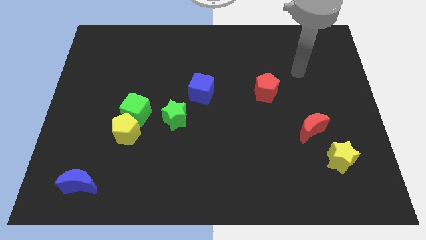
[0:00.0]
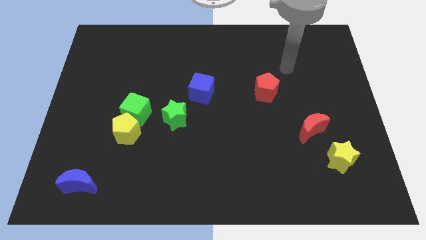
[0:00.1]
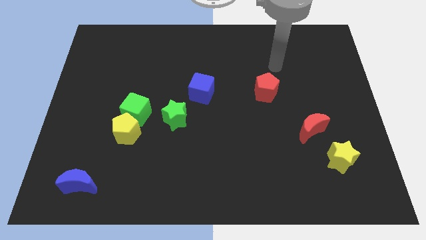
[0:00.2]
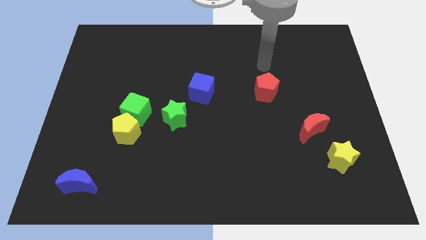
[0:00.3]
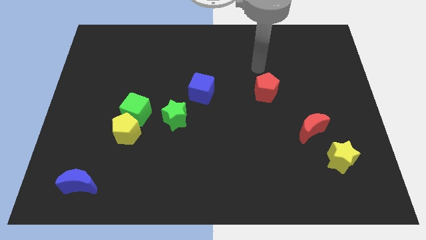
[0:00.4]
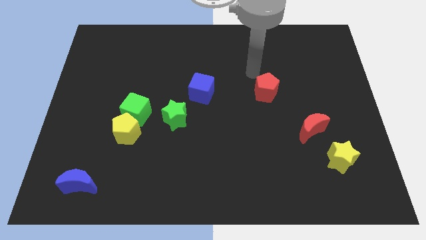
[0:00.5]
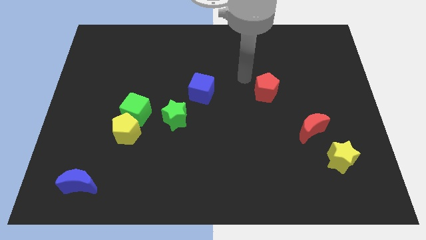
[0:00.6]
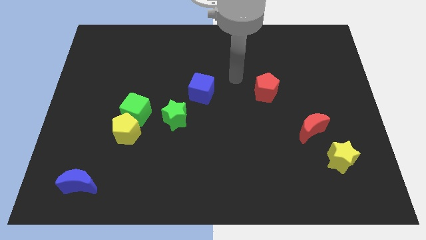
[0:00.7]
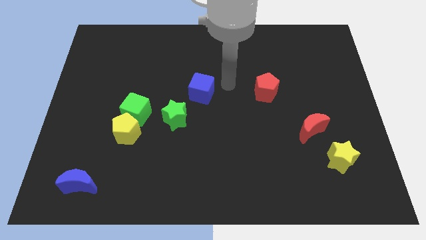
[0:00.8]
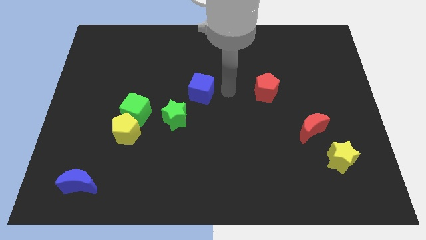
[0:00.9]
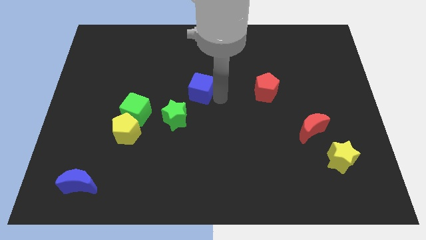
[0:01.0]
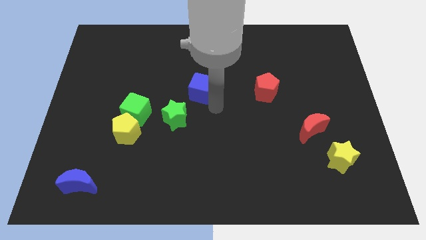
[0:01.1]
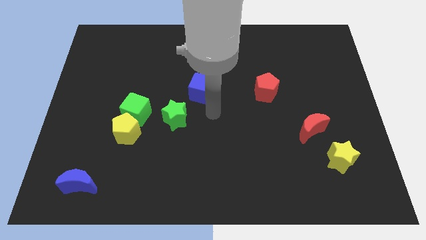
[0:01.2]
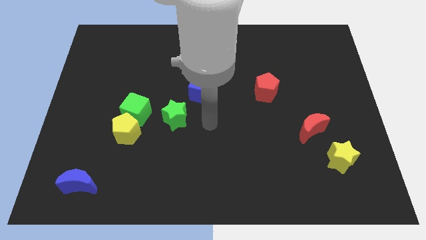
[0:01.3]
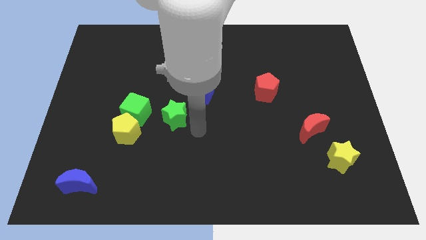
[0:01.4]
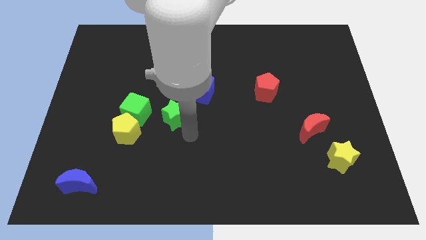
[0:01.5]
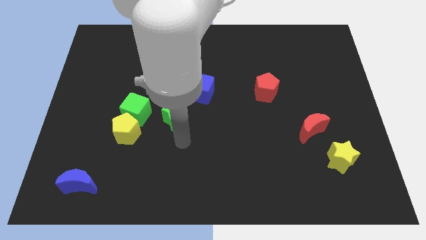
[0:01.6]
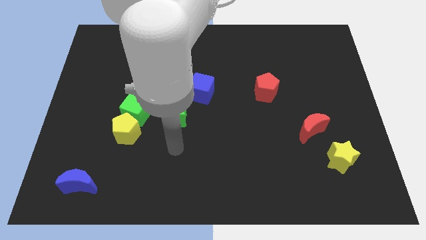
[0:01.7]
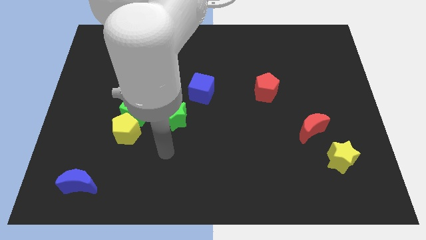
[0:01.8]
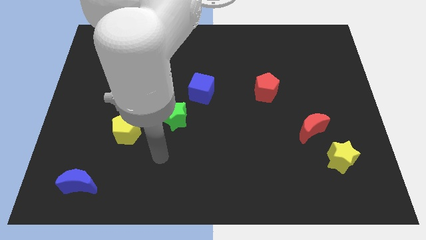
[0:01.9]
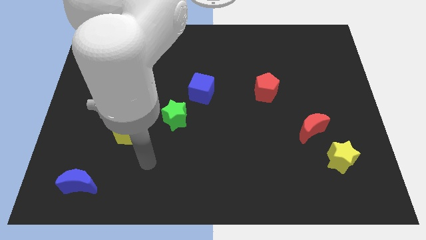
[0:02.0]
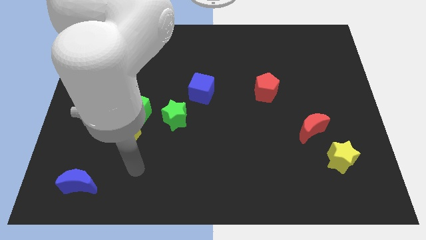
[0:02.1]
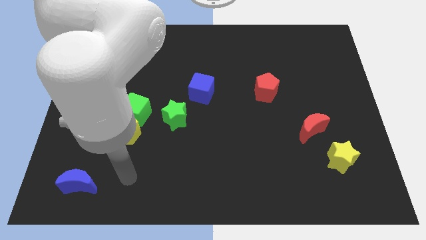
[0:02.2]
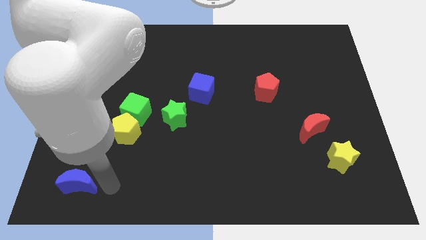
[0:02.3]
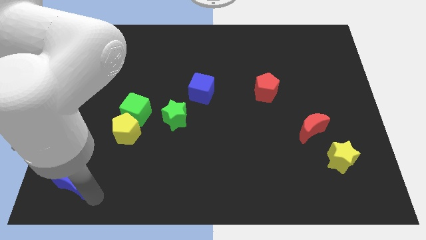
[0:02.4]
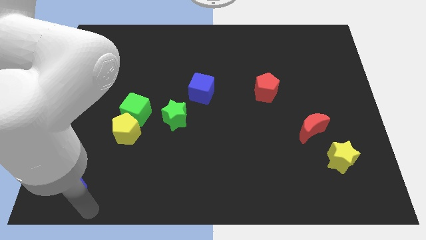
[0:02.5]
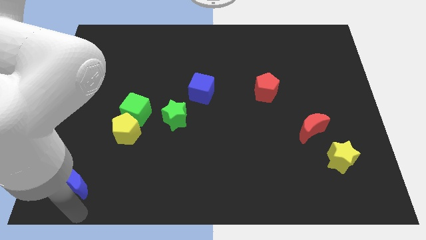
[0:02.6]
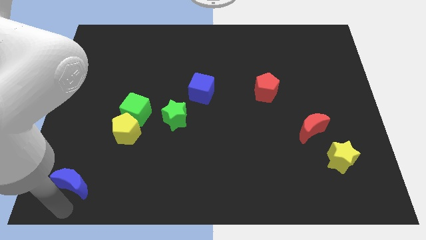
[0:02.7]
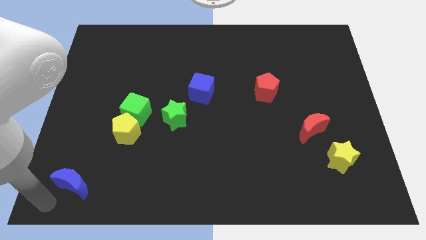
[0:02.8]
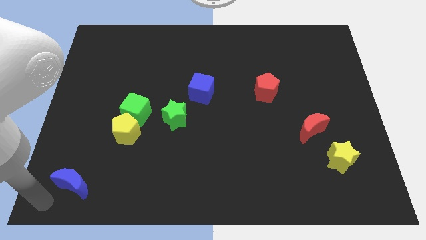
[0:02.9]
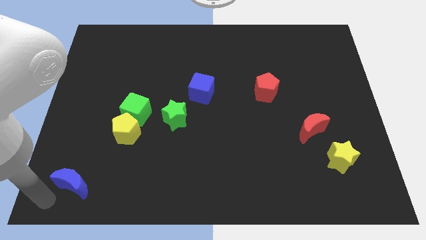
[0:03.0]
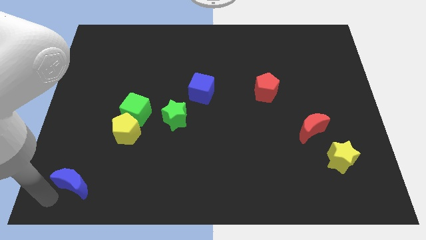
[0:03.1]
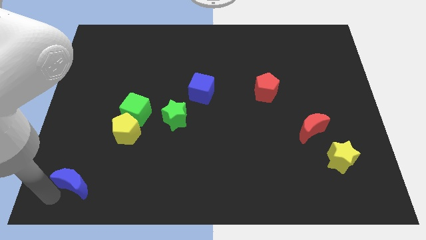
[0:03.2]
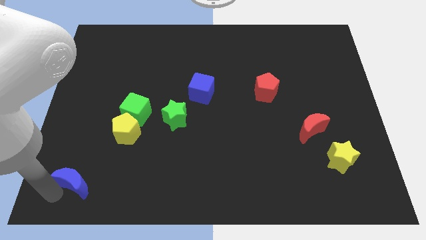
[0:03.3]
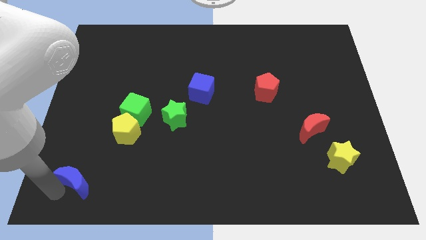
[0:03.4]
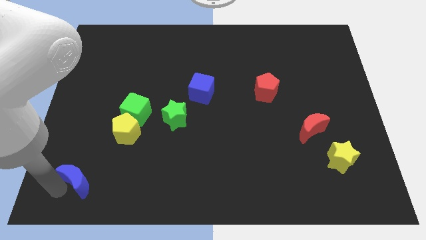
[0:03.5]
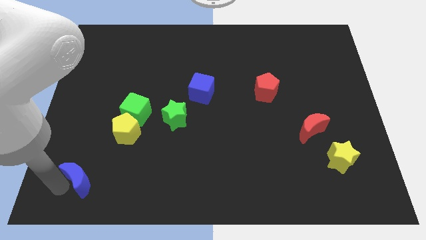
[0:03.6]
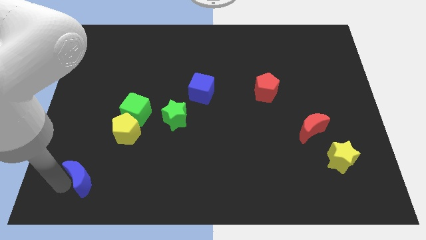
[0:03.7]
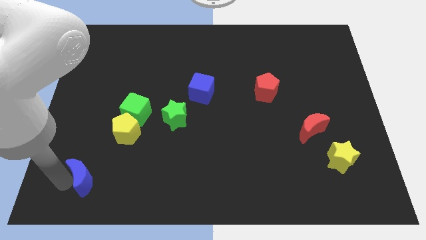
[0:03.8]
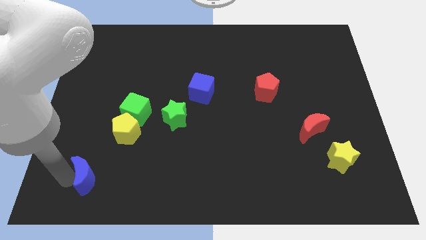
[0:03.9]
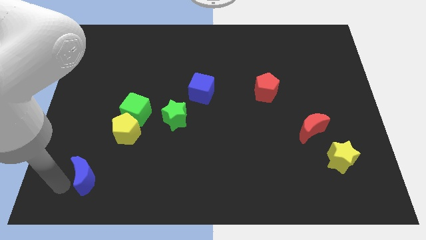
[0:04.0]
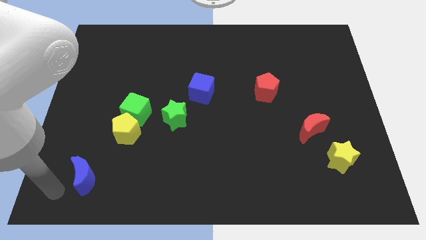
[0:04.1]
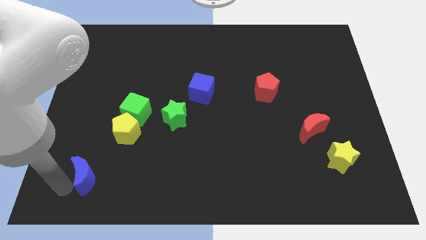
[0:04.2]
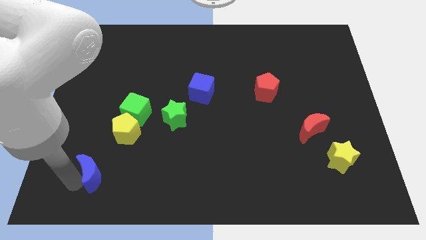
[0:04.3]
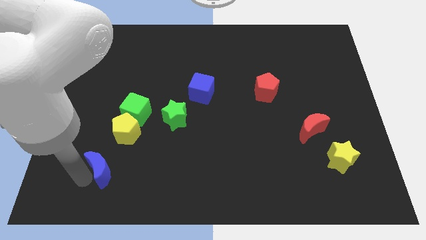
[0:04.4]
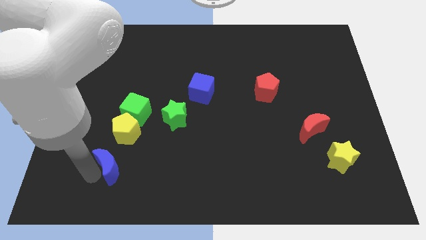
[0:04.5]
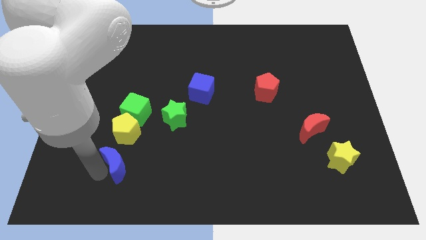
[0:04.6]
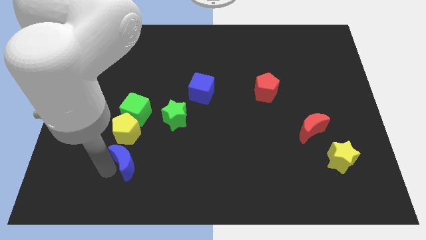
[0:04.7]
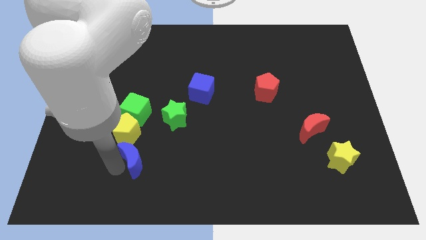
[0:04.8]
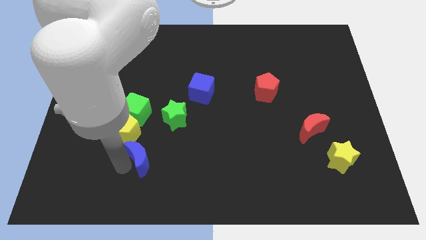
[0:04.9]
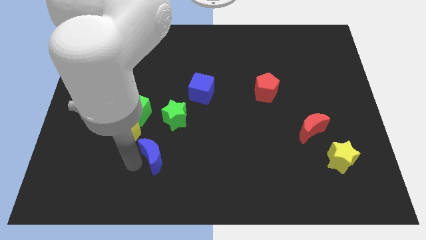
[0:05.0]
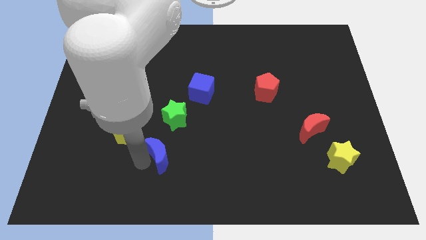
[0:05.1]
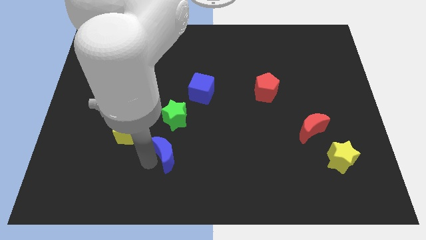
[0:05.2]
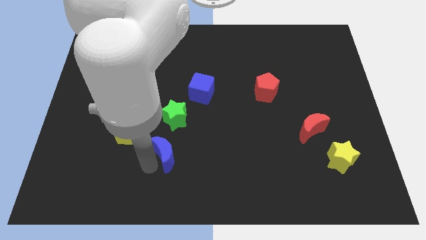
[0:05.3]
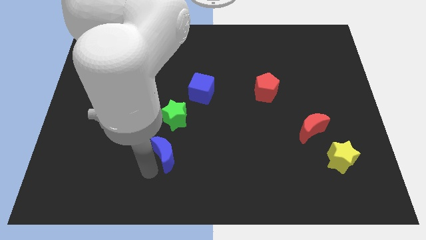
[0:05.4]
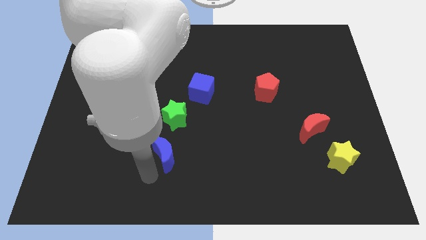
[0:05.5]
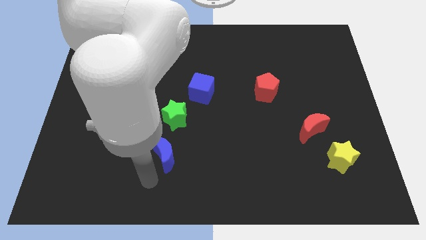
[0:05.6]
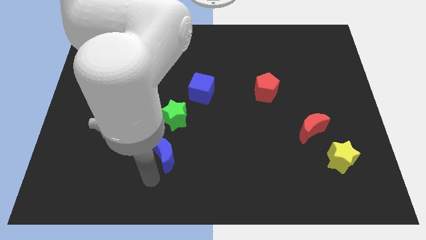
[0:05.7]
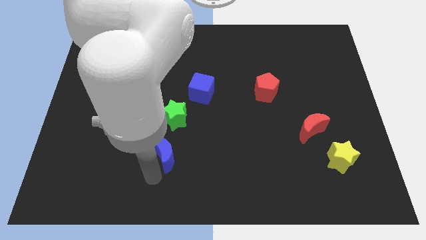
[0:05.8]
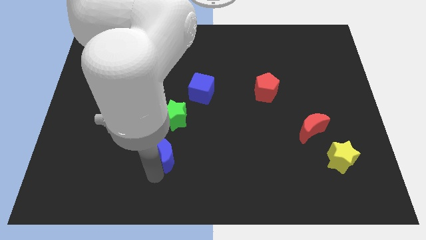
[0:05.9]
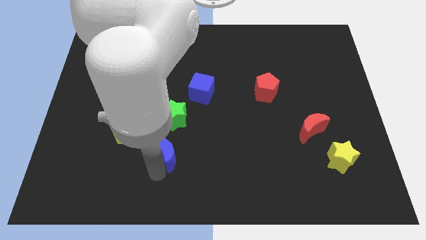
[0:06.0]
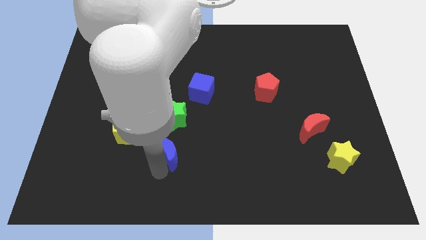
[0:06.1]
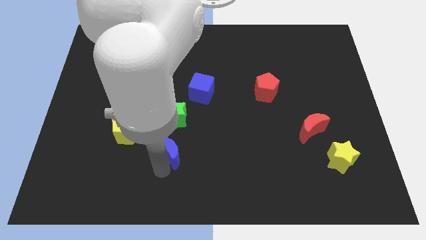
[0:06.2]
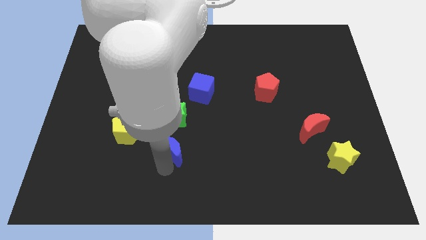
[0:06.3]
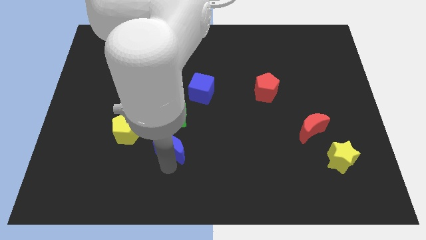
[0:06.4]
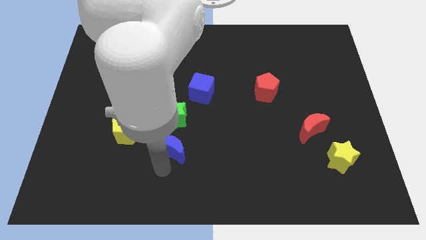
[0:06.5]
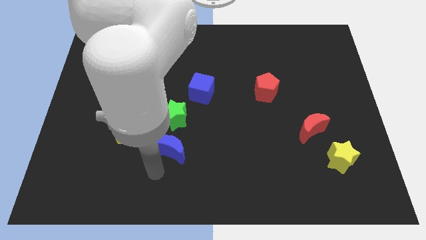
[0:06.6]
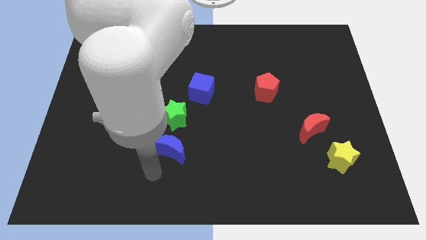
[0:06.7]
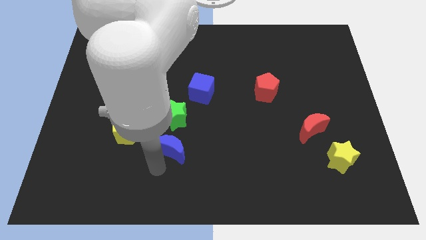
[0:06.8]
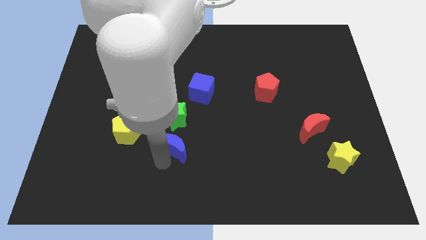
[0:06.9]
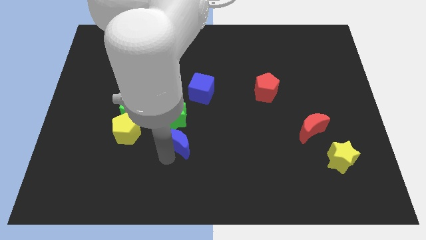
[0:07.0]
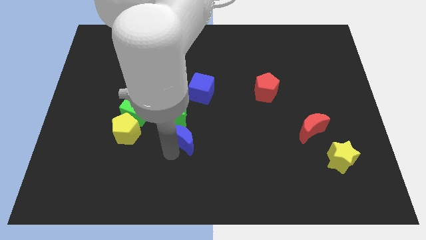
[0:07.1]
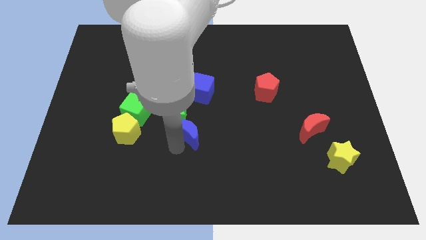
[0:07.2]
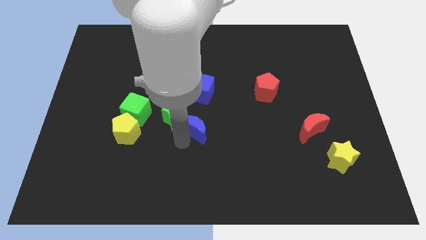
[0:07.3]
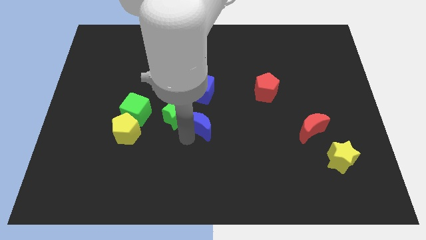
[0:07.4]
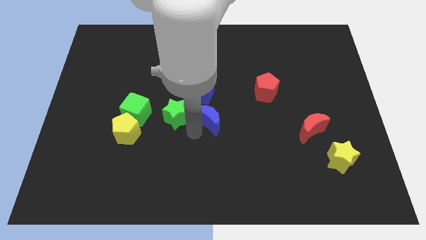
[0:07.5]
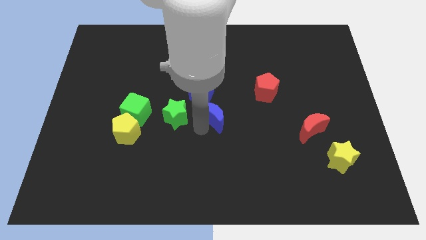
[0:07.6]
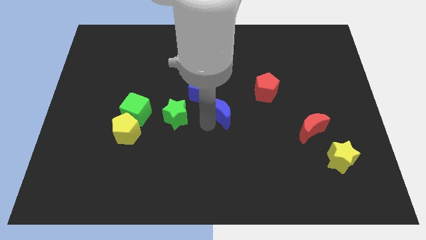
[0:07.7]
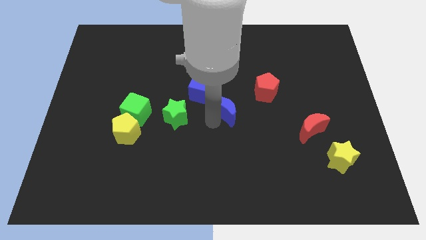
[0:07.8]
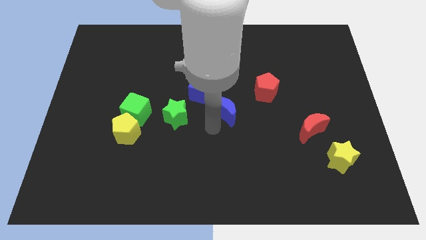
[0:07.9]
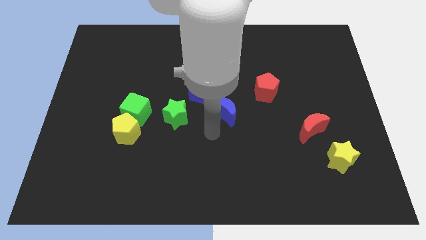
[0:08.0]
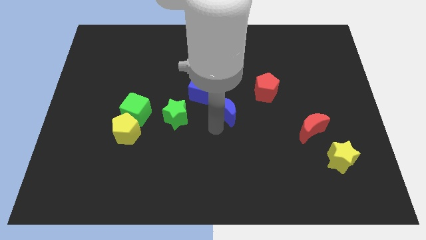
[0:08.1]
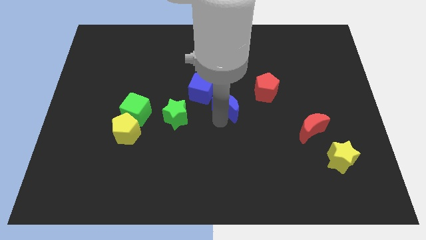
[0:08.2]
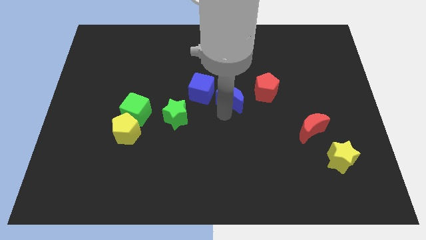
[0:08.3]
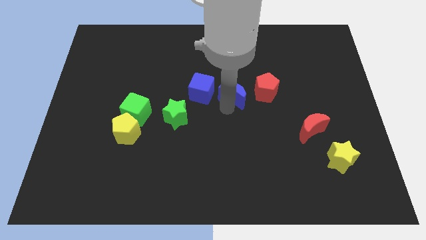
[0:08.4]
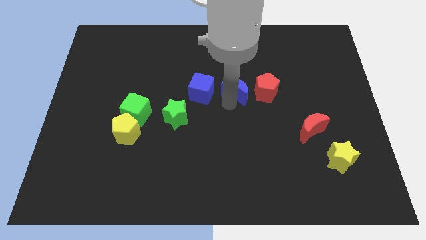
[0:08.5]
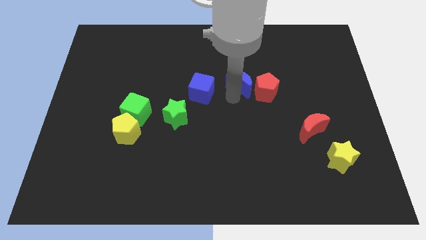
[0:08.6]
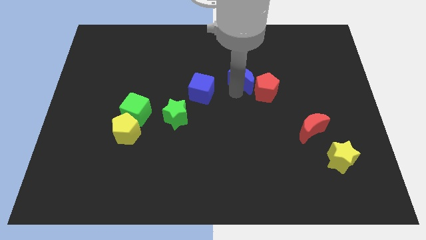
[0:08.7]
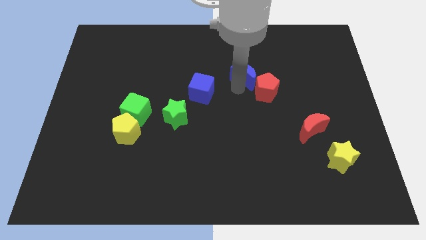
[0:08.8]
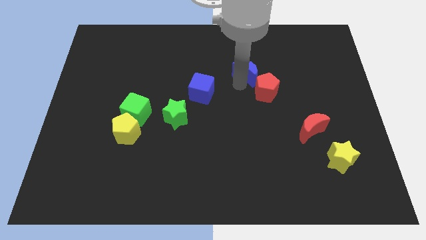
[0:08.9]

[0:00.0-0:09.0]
push the blue moon to the top of the red pentagon
